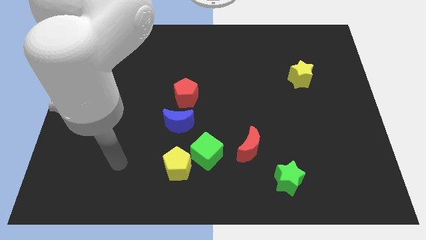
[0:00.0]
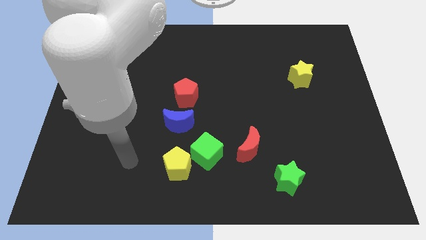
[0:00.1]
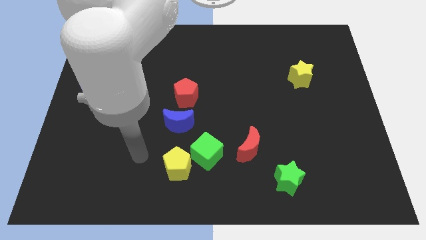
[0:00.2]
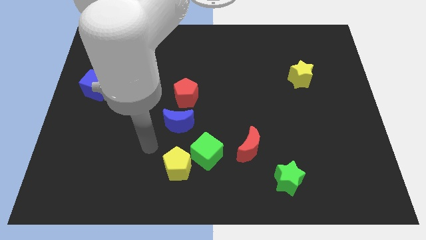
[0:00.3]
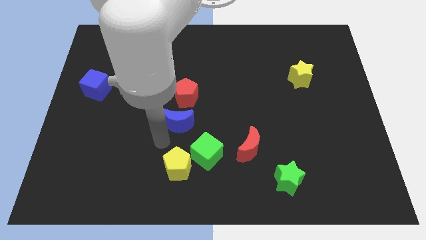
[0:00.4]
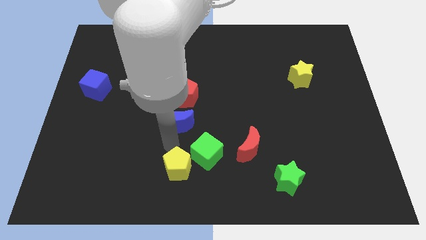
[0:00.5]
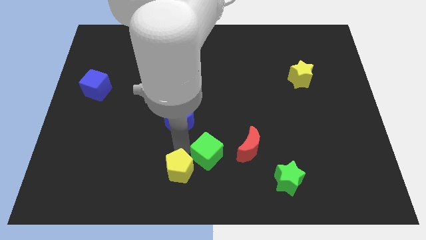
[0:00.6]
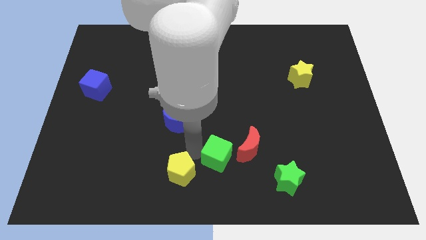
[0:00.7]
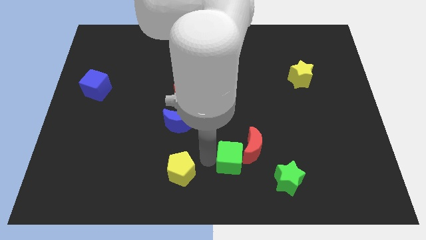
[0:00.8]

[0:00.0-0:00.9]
separate the yellow pentagon from the green cube

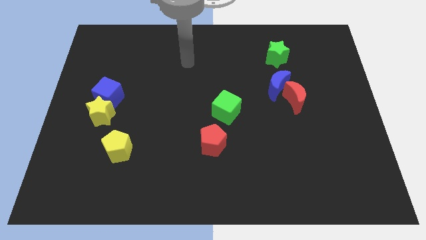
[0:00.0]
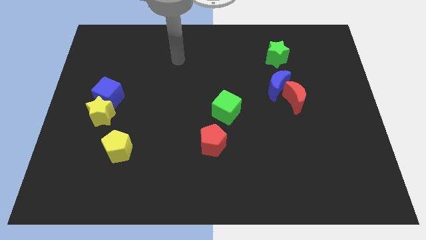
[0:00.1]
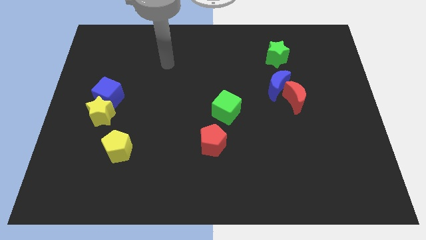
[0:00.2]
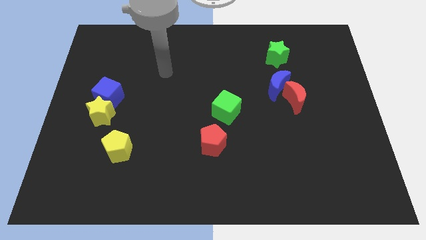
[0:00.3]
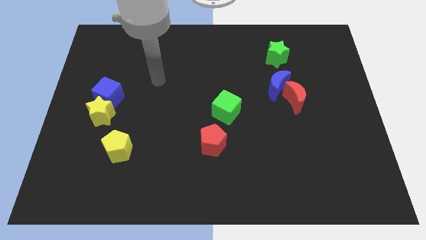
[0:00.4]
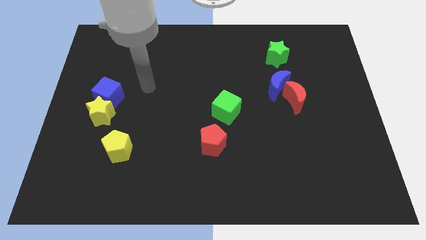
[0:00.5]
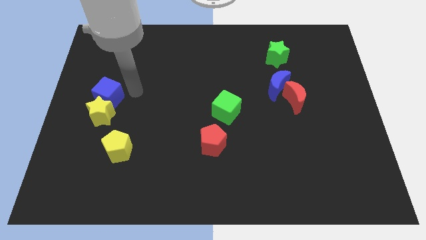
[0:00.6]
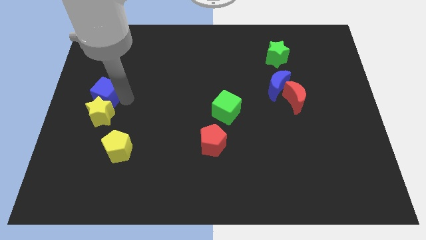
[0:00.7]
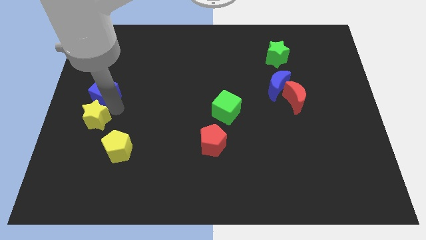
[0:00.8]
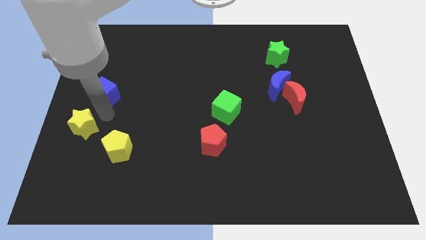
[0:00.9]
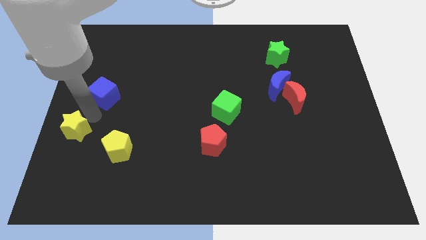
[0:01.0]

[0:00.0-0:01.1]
separate the blue cube from the yellow star

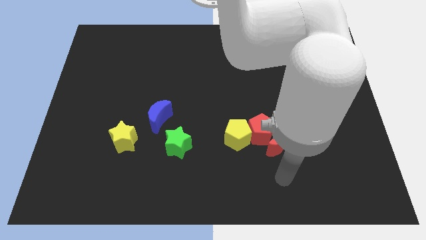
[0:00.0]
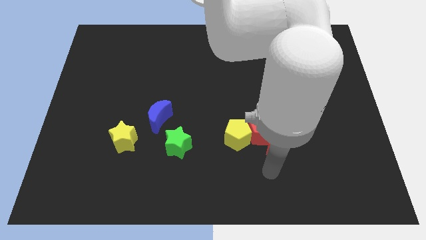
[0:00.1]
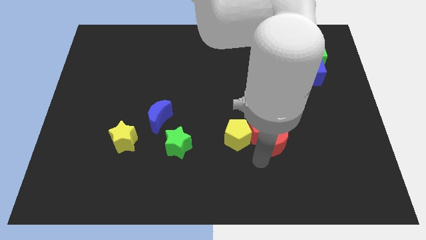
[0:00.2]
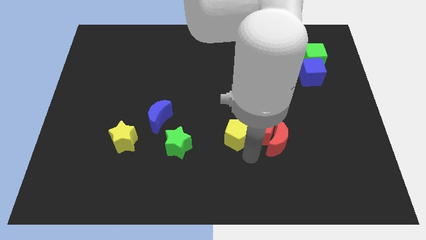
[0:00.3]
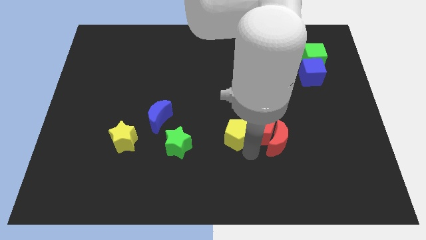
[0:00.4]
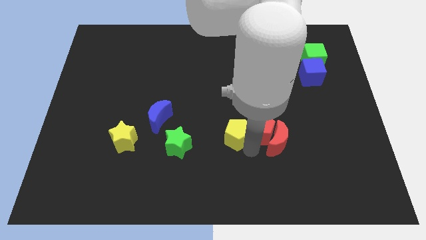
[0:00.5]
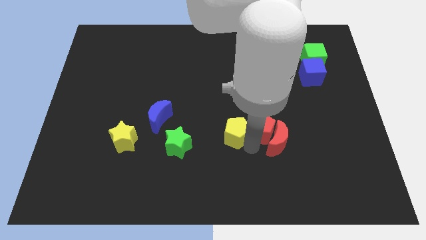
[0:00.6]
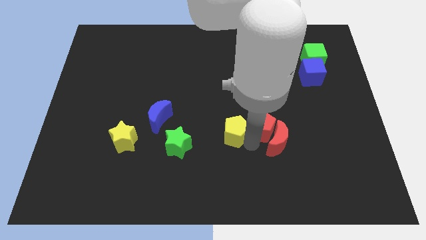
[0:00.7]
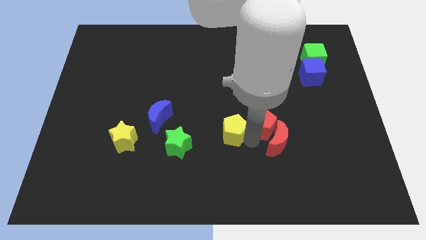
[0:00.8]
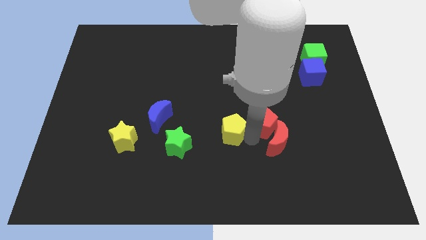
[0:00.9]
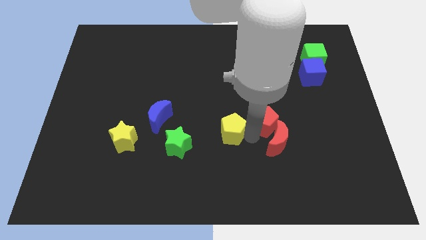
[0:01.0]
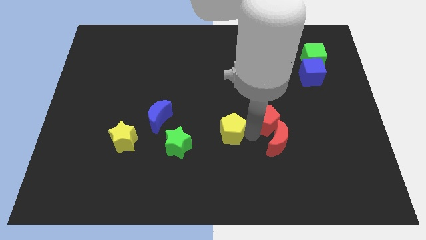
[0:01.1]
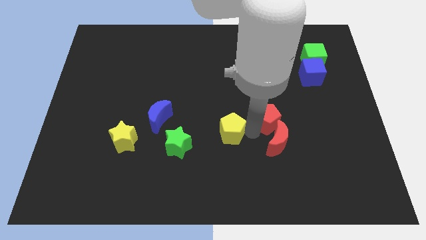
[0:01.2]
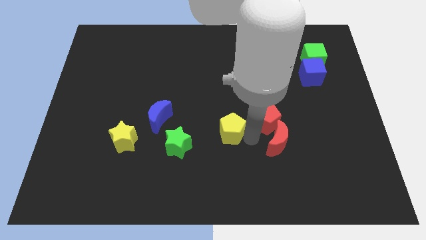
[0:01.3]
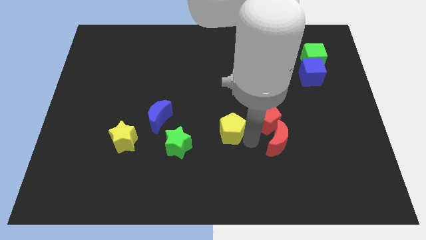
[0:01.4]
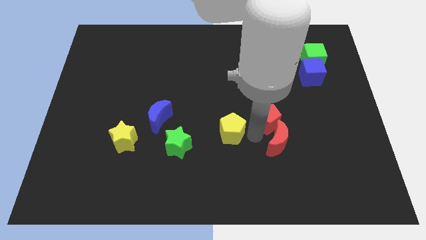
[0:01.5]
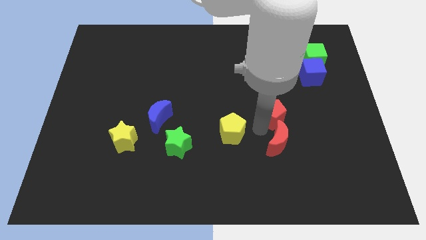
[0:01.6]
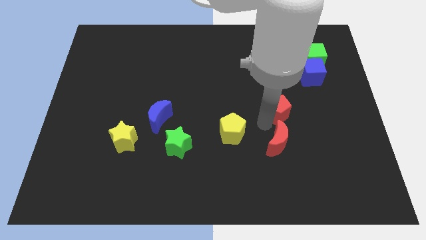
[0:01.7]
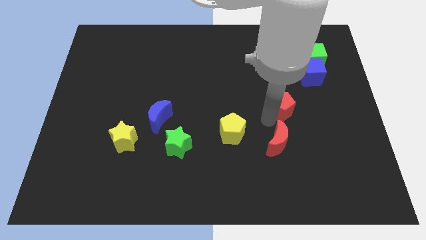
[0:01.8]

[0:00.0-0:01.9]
separate the red pentagon from the red moon and yellow pentagon

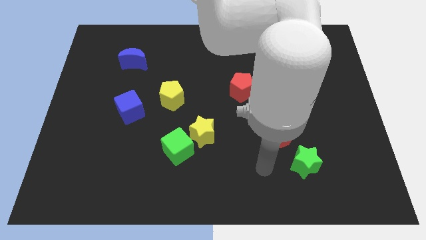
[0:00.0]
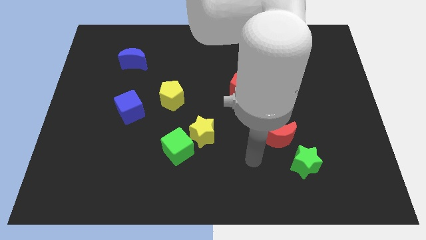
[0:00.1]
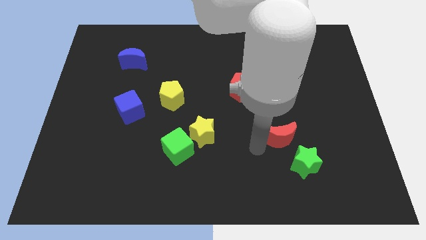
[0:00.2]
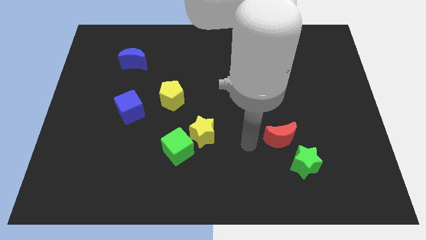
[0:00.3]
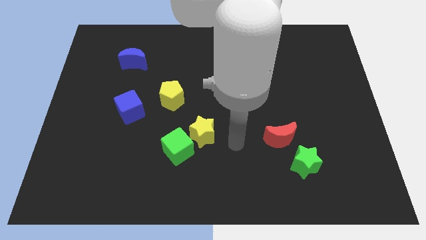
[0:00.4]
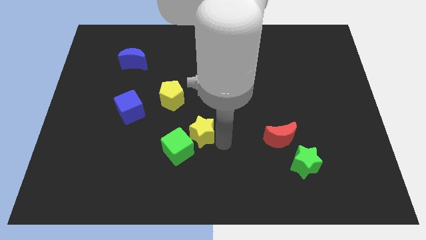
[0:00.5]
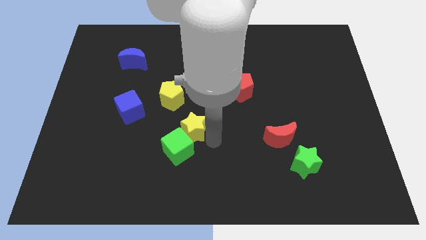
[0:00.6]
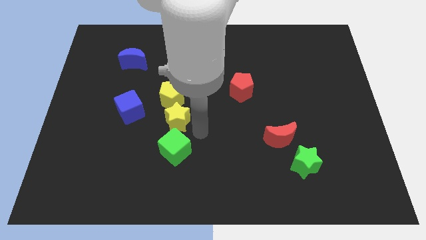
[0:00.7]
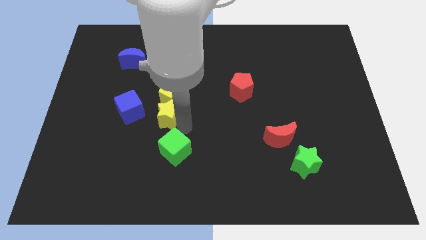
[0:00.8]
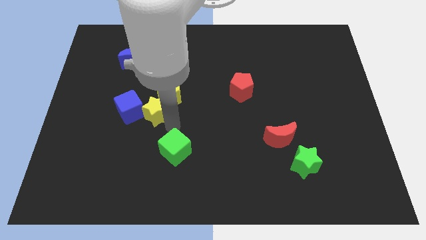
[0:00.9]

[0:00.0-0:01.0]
pull the green cube apart from the yellow star

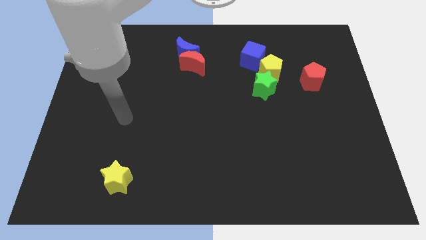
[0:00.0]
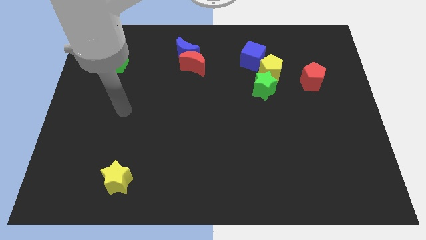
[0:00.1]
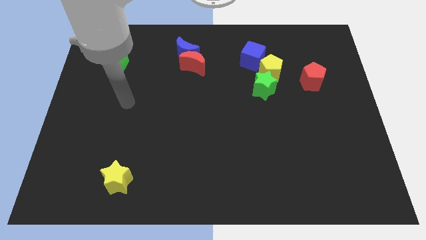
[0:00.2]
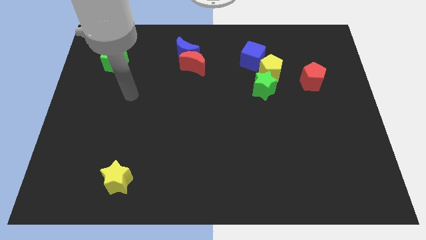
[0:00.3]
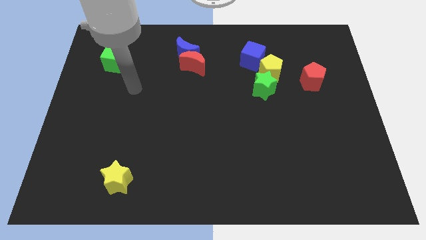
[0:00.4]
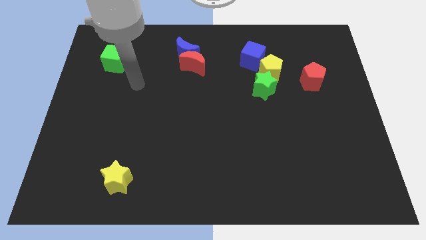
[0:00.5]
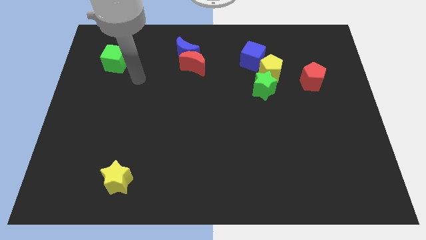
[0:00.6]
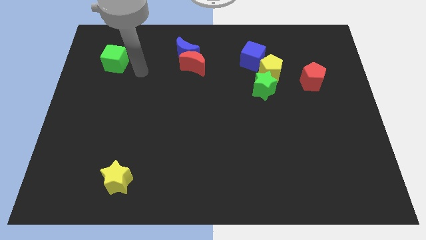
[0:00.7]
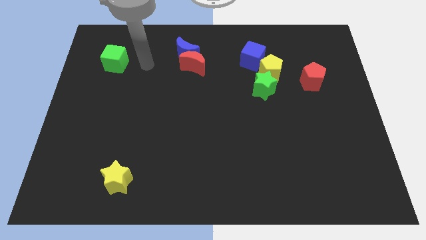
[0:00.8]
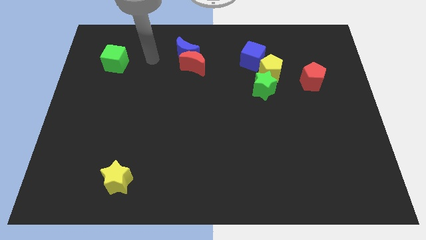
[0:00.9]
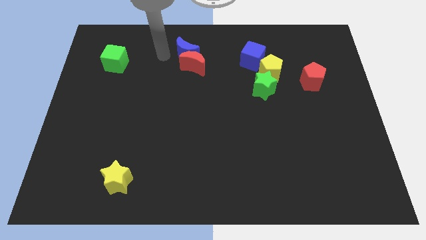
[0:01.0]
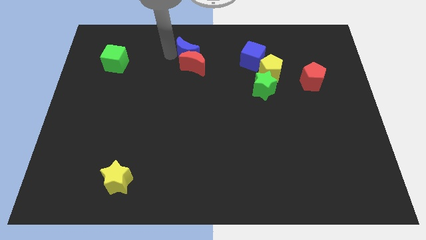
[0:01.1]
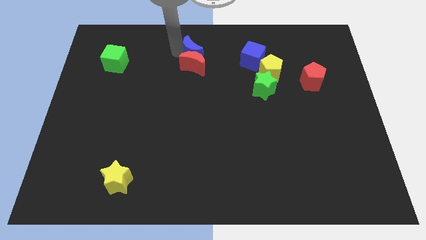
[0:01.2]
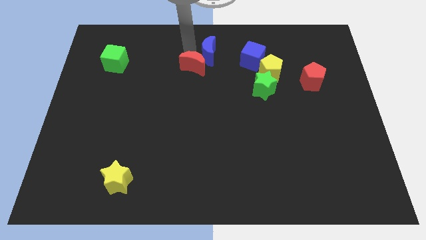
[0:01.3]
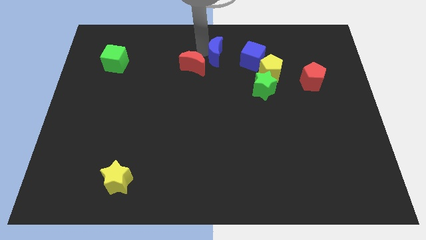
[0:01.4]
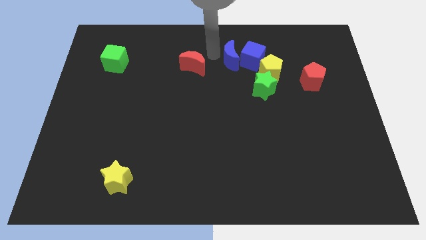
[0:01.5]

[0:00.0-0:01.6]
pull the red moon apart from the blue moon

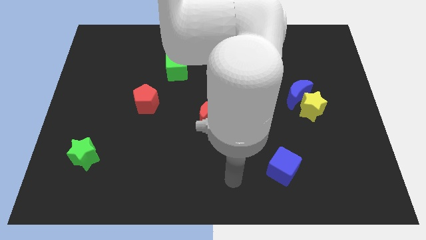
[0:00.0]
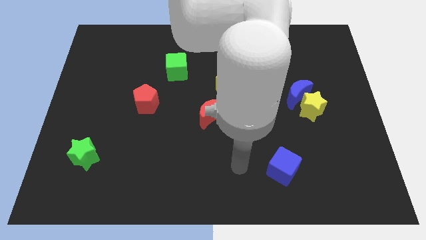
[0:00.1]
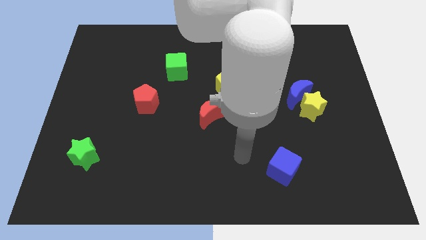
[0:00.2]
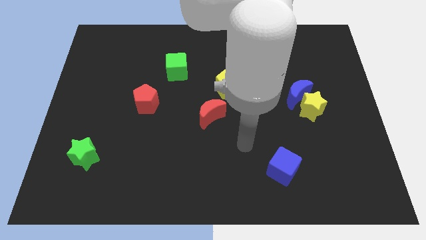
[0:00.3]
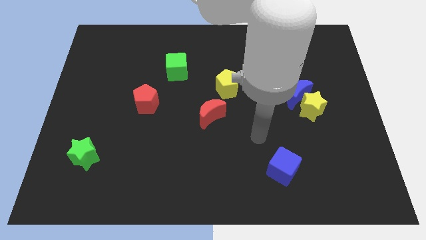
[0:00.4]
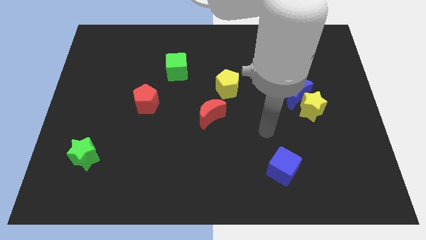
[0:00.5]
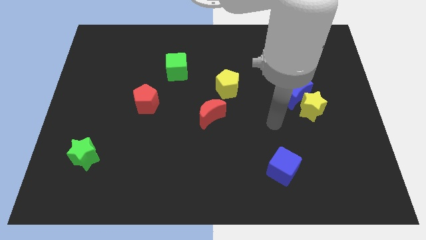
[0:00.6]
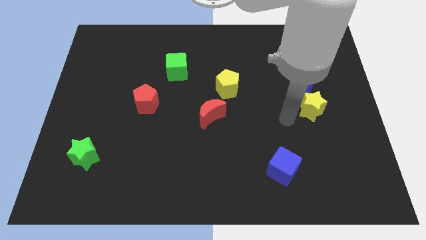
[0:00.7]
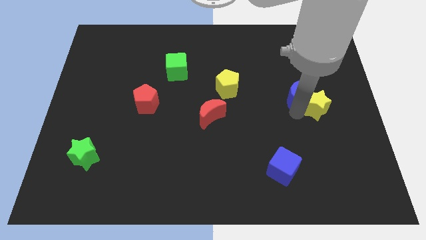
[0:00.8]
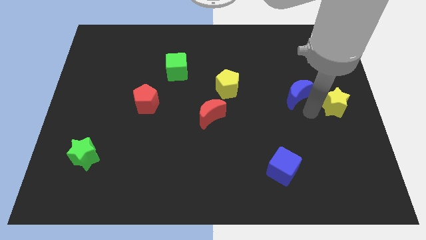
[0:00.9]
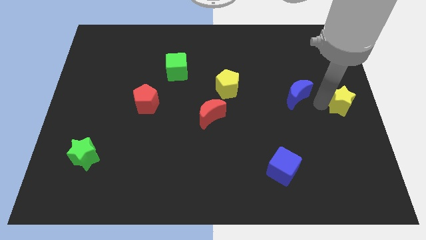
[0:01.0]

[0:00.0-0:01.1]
move the blue moon away from the yellow star

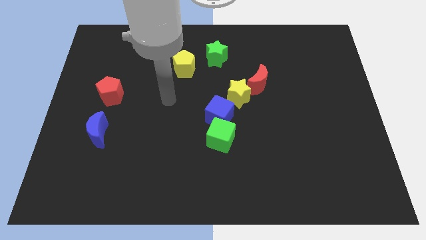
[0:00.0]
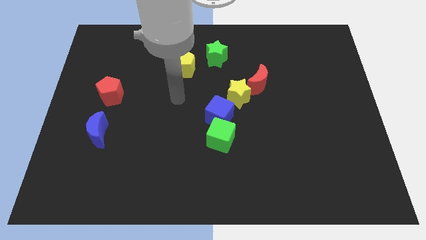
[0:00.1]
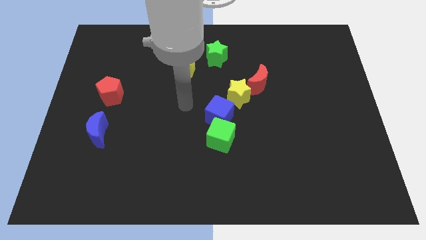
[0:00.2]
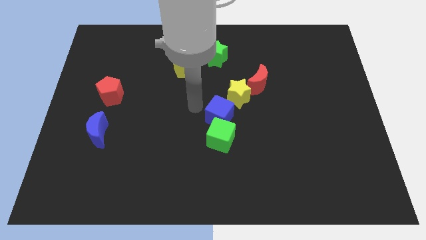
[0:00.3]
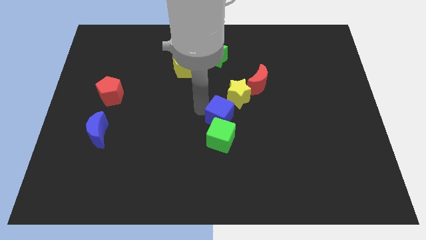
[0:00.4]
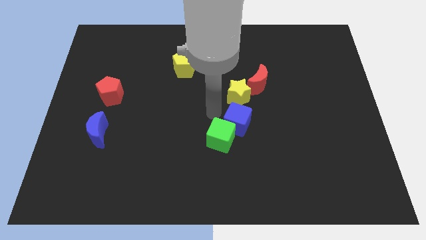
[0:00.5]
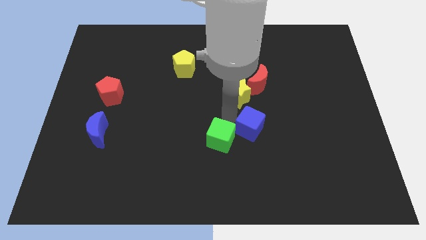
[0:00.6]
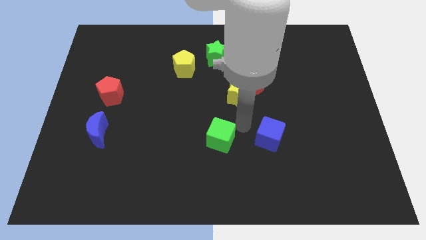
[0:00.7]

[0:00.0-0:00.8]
pull the green cube apart from the blue cube

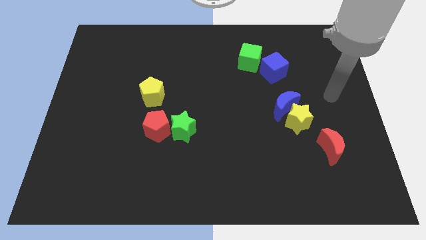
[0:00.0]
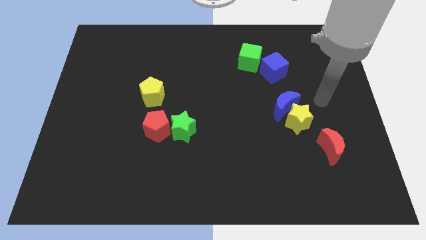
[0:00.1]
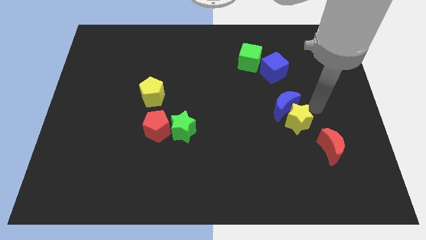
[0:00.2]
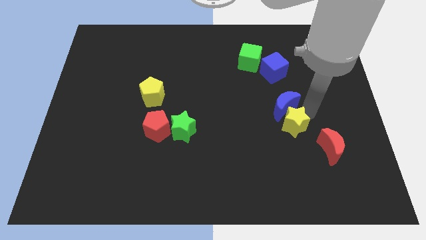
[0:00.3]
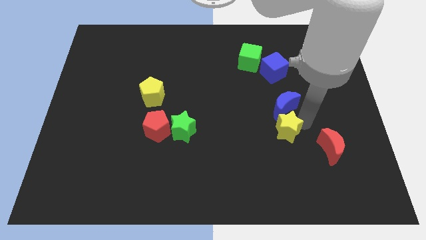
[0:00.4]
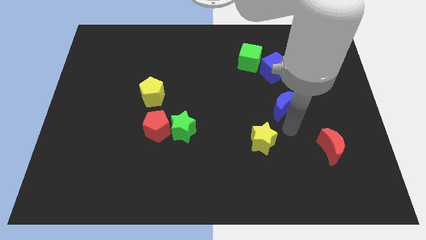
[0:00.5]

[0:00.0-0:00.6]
separate the blue moon from the yellow star

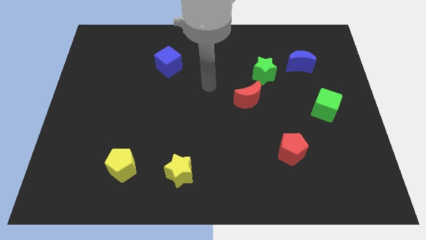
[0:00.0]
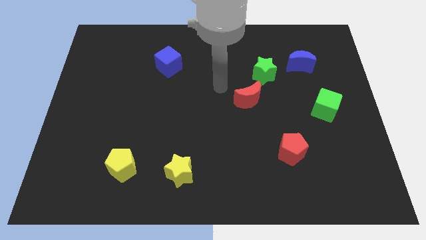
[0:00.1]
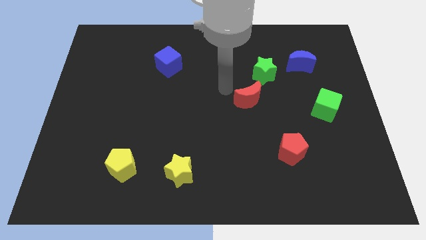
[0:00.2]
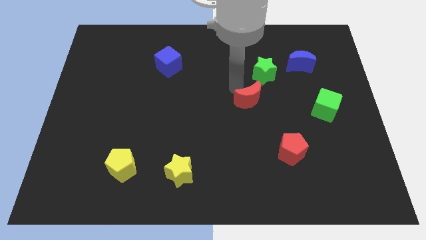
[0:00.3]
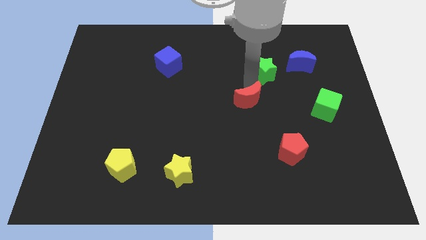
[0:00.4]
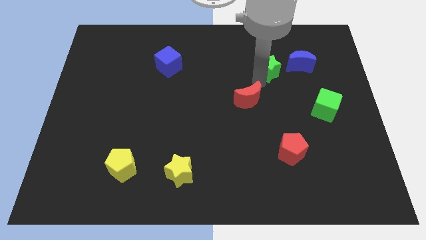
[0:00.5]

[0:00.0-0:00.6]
separate the red moon from the green star
